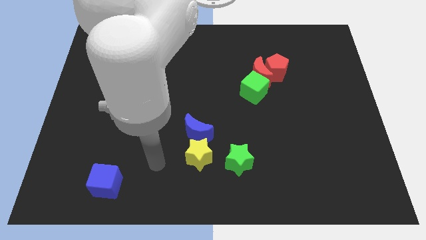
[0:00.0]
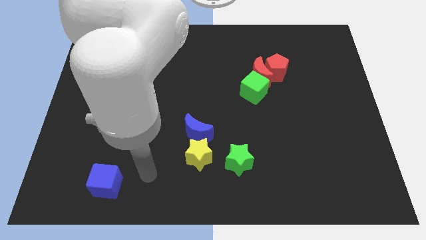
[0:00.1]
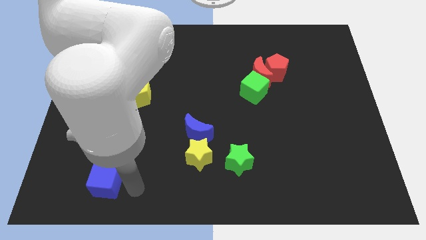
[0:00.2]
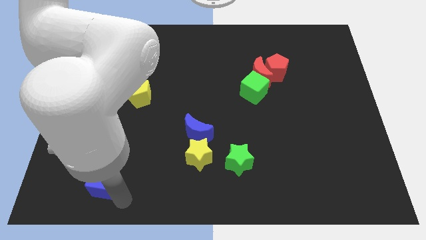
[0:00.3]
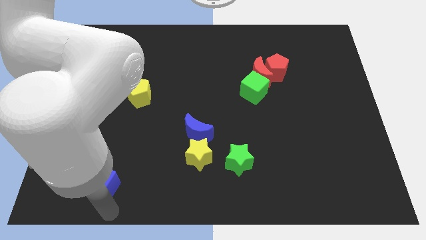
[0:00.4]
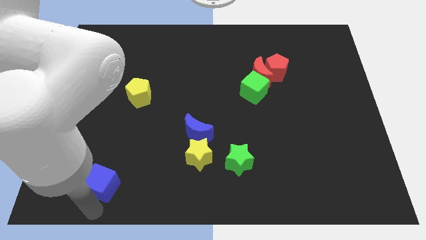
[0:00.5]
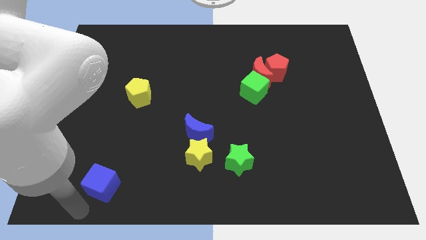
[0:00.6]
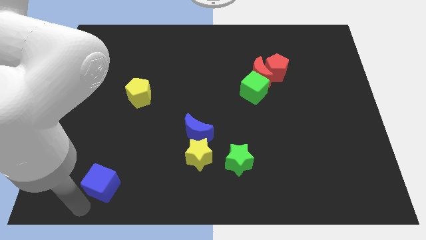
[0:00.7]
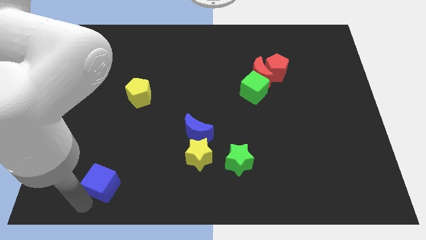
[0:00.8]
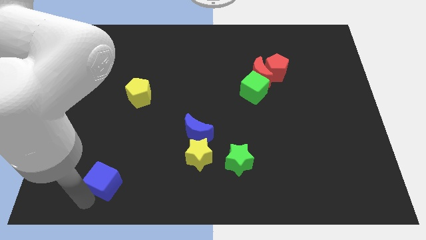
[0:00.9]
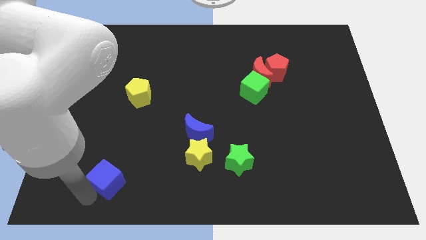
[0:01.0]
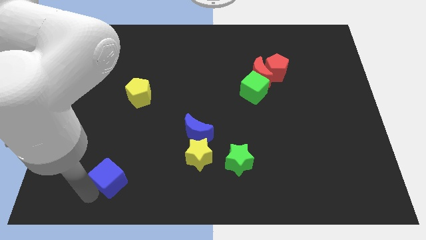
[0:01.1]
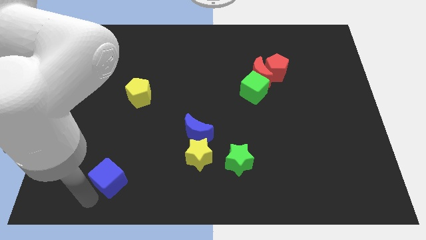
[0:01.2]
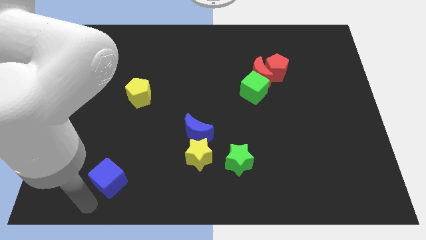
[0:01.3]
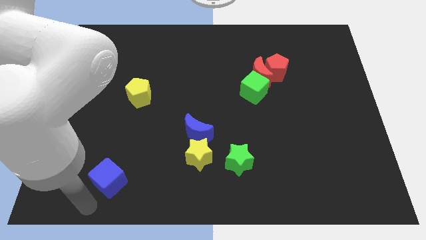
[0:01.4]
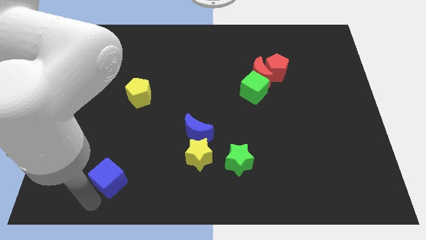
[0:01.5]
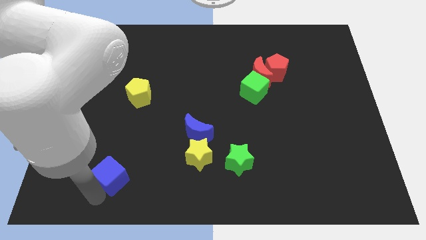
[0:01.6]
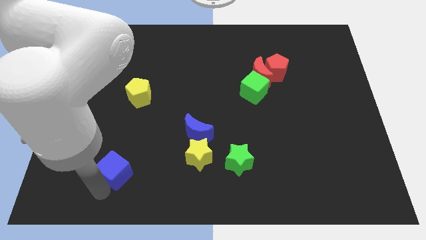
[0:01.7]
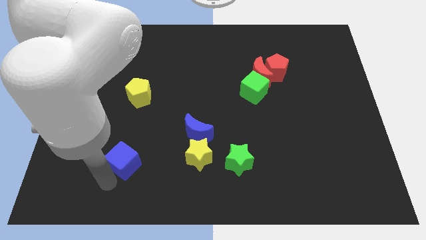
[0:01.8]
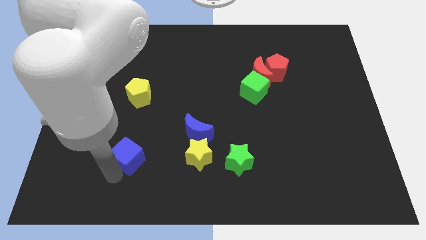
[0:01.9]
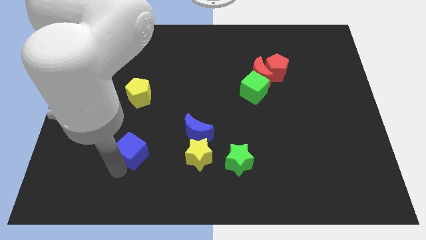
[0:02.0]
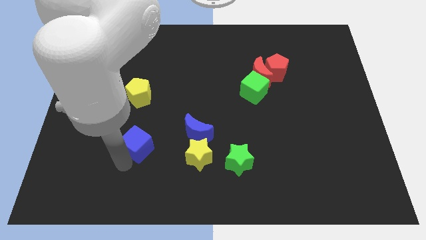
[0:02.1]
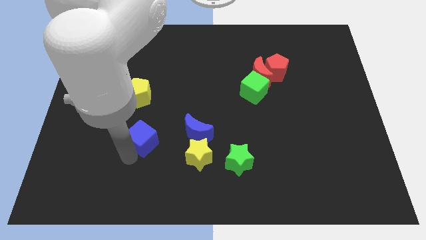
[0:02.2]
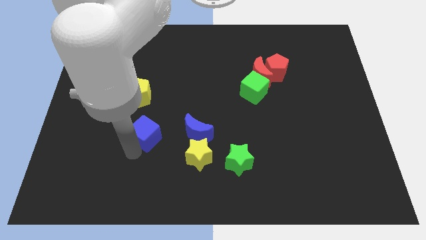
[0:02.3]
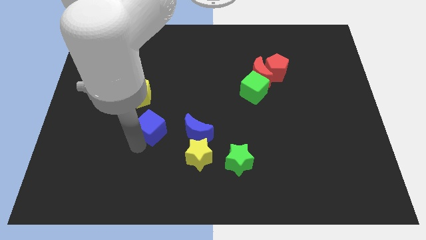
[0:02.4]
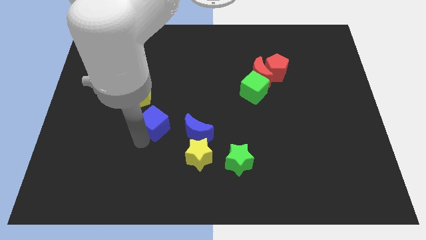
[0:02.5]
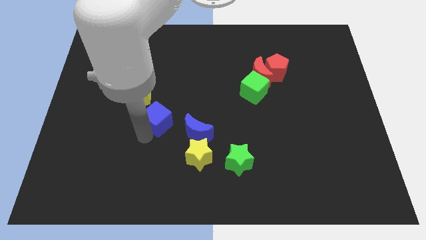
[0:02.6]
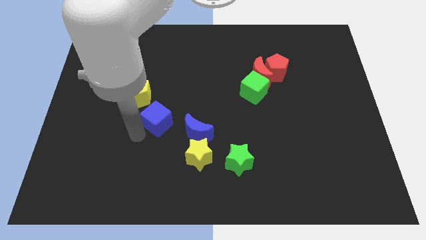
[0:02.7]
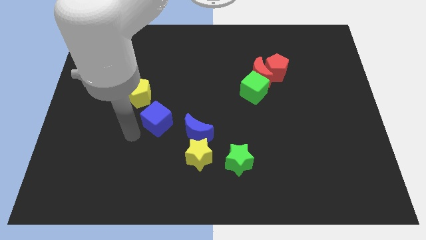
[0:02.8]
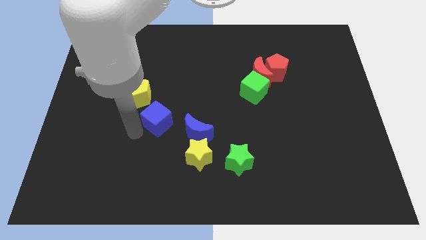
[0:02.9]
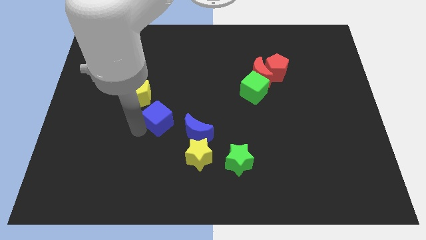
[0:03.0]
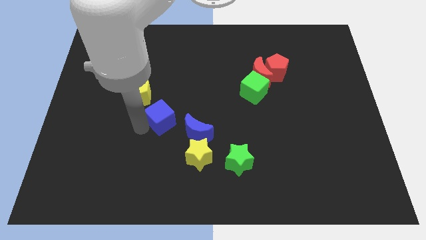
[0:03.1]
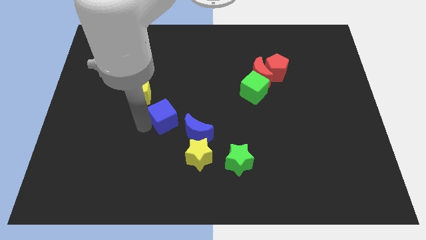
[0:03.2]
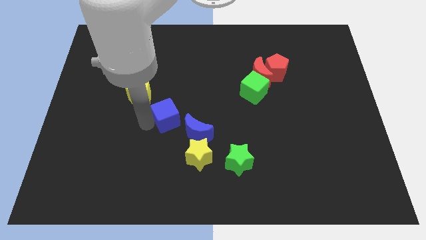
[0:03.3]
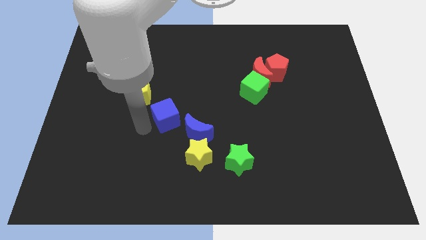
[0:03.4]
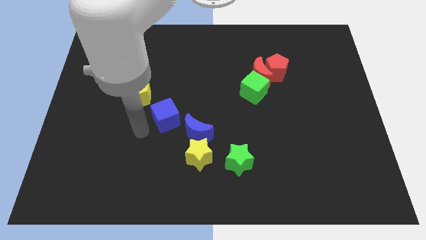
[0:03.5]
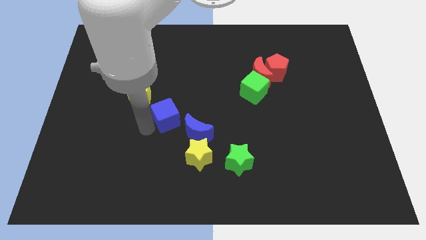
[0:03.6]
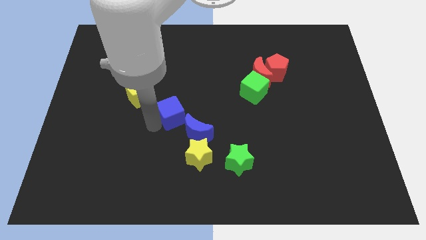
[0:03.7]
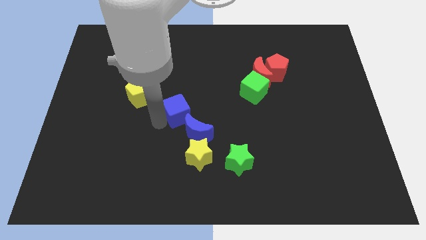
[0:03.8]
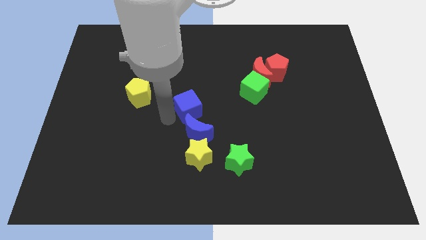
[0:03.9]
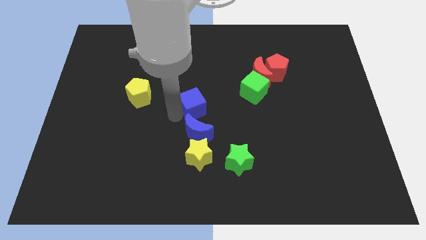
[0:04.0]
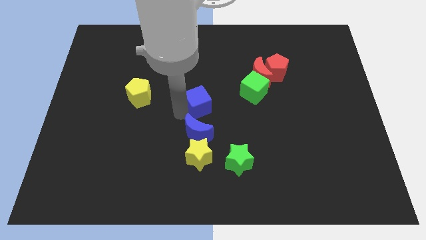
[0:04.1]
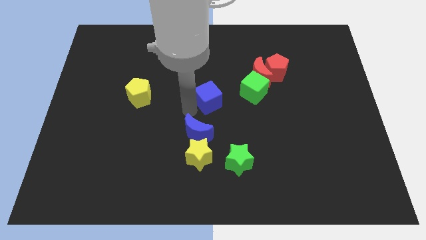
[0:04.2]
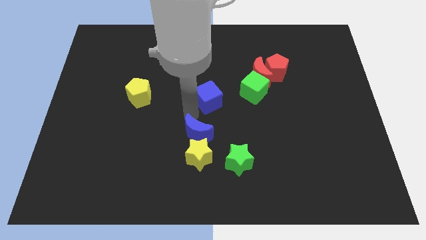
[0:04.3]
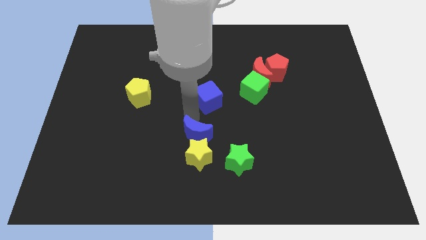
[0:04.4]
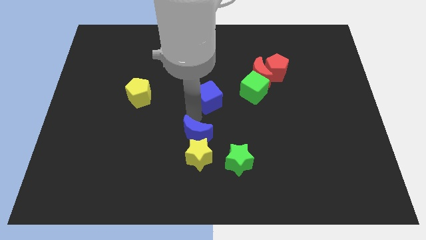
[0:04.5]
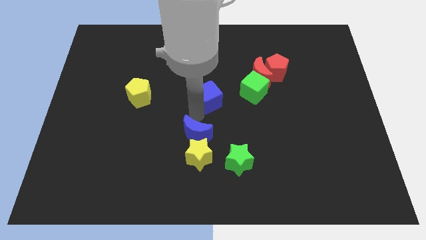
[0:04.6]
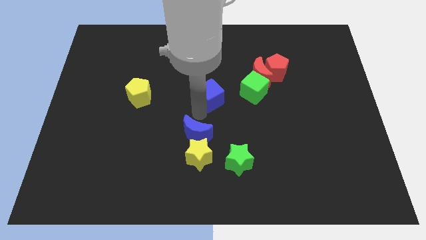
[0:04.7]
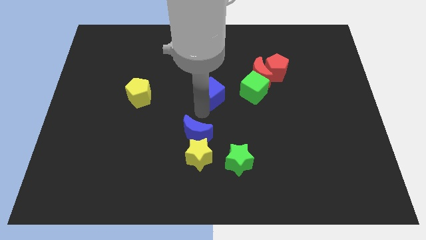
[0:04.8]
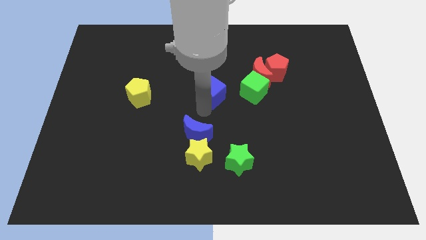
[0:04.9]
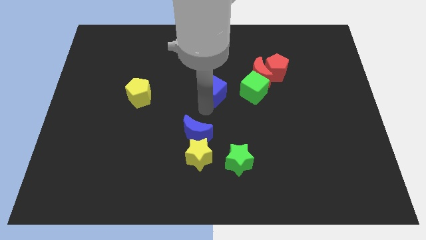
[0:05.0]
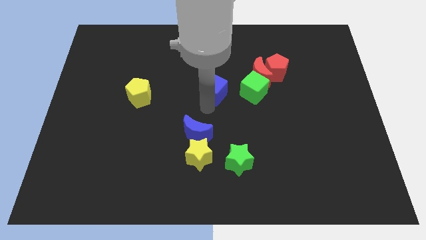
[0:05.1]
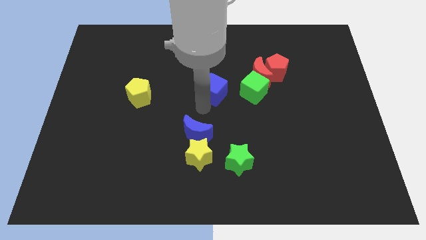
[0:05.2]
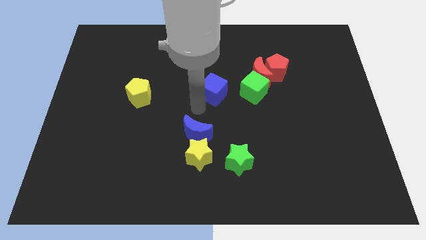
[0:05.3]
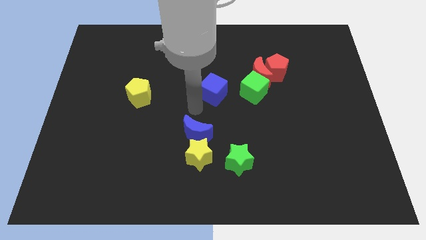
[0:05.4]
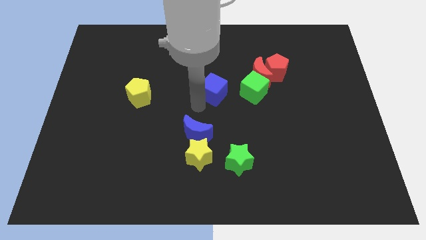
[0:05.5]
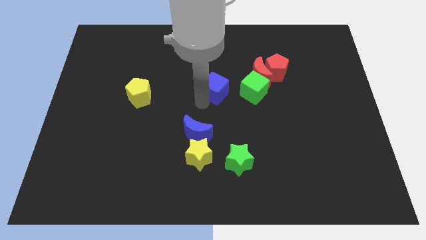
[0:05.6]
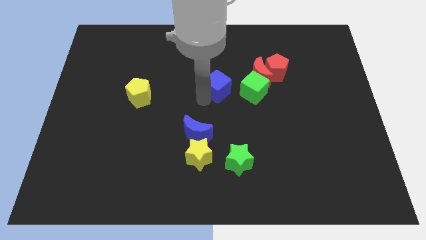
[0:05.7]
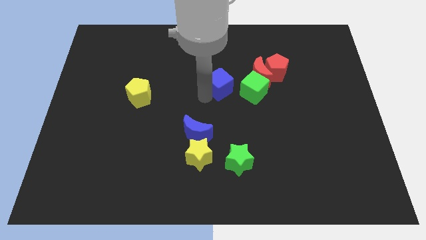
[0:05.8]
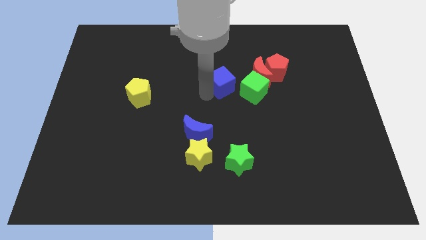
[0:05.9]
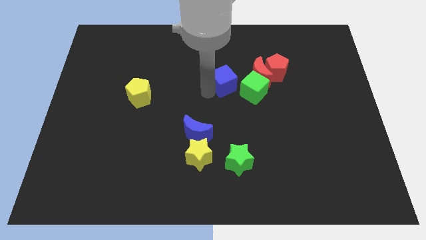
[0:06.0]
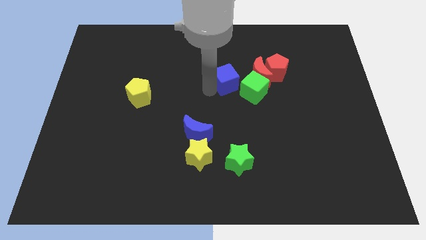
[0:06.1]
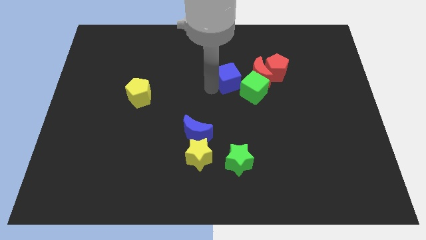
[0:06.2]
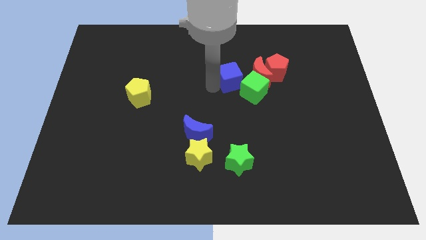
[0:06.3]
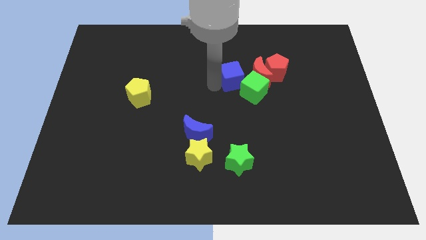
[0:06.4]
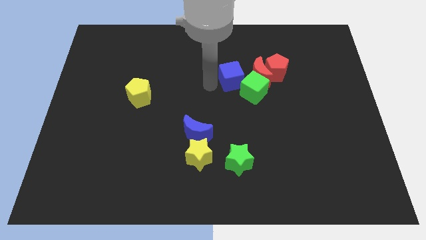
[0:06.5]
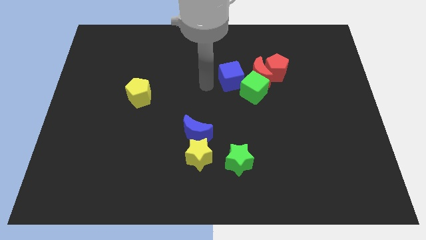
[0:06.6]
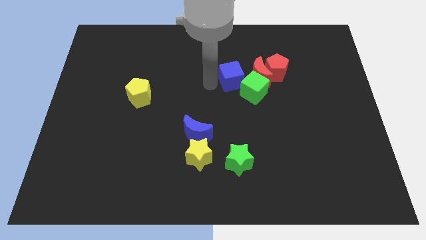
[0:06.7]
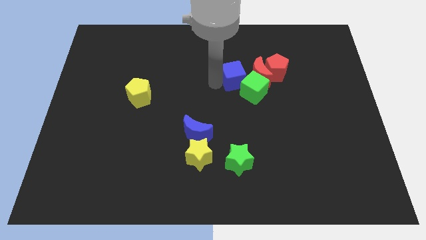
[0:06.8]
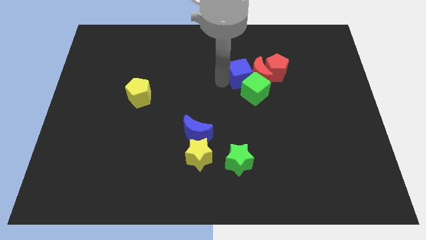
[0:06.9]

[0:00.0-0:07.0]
slide the blue cube to the red moon
